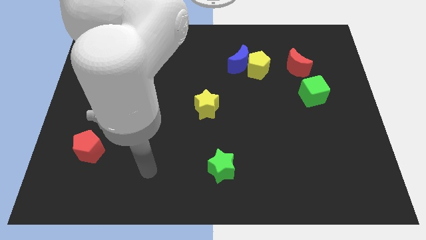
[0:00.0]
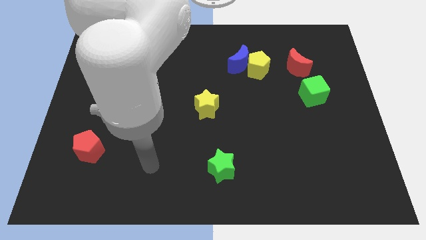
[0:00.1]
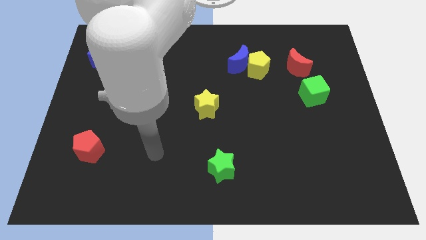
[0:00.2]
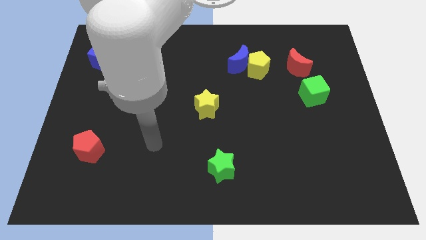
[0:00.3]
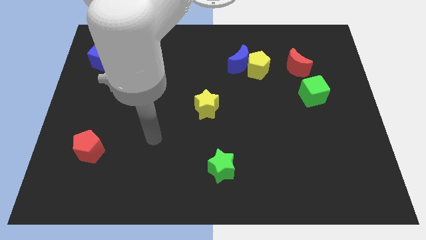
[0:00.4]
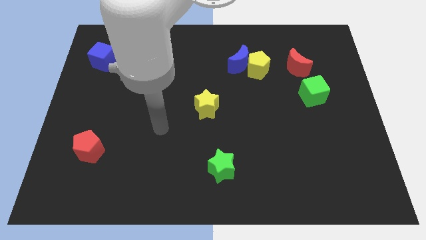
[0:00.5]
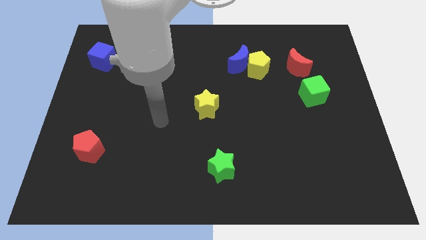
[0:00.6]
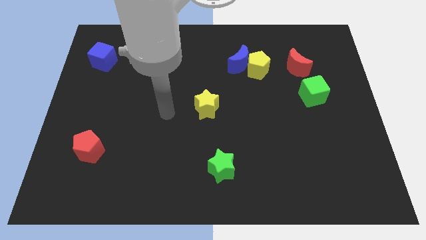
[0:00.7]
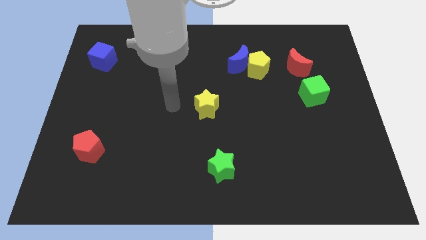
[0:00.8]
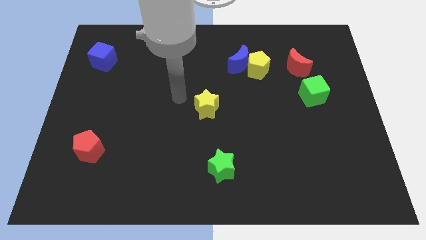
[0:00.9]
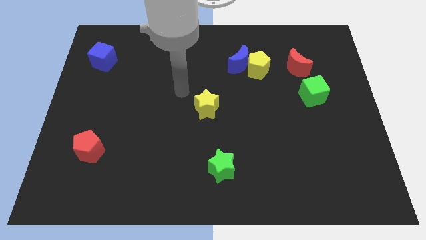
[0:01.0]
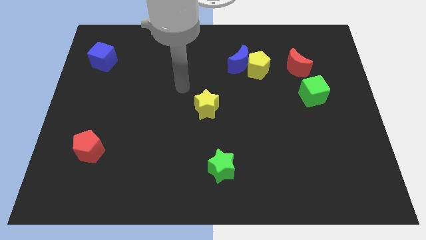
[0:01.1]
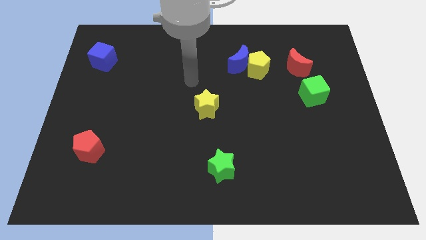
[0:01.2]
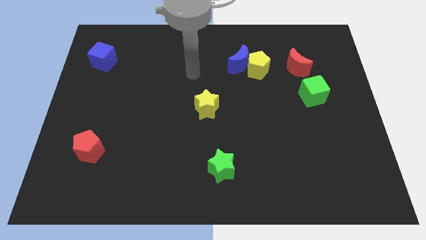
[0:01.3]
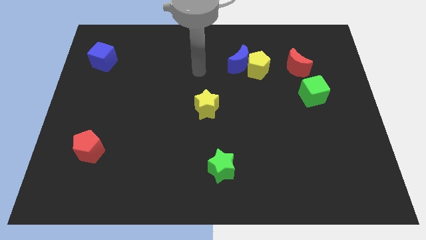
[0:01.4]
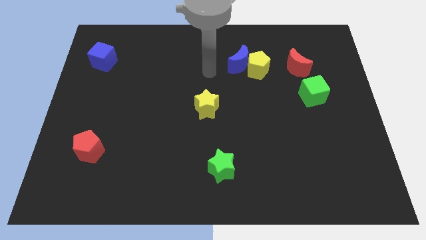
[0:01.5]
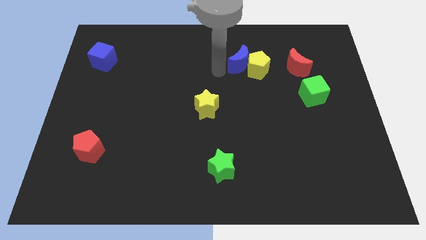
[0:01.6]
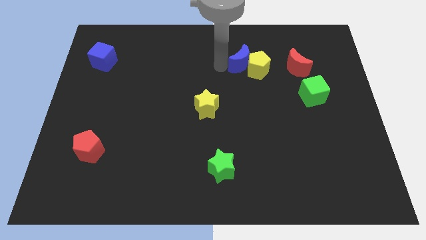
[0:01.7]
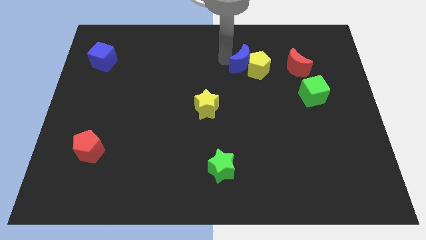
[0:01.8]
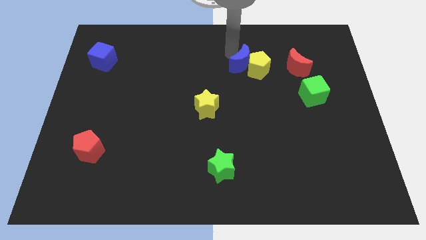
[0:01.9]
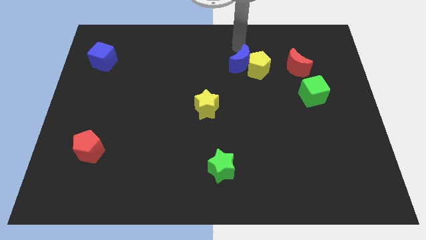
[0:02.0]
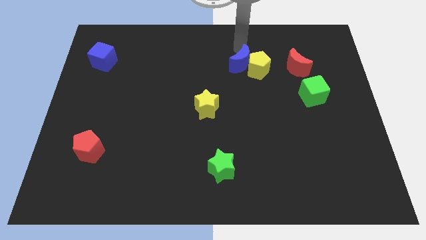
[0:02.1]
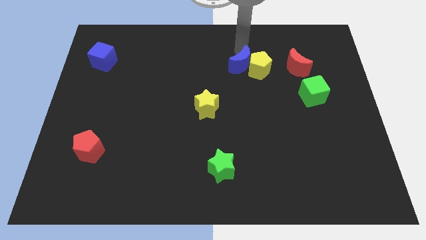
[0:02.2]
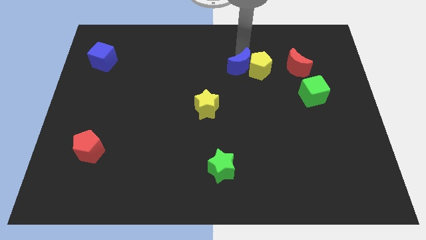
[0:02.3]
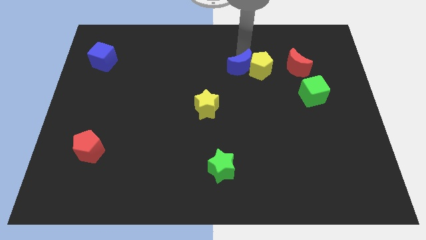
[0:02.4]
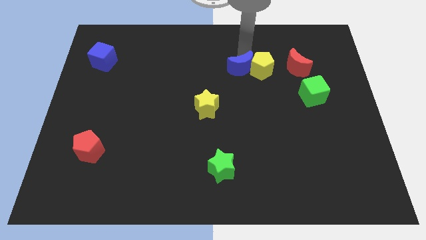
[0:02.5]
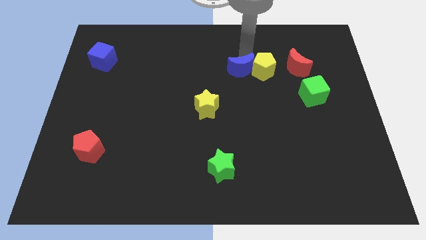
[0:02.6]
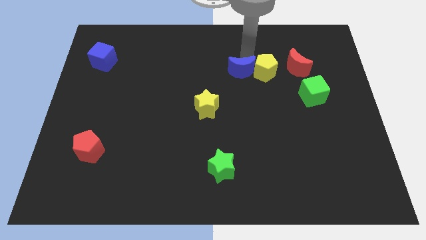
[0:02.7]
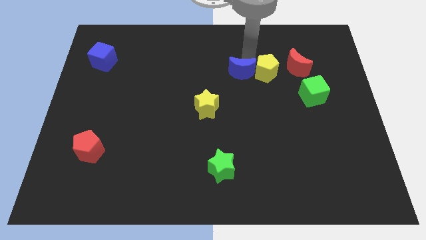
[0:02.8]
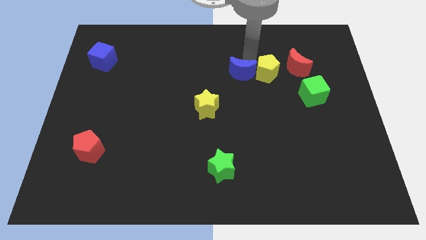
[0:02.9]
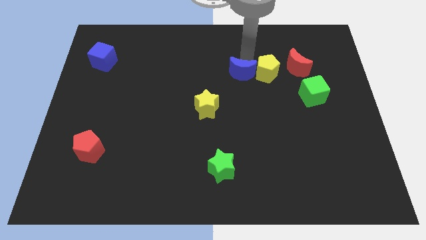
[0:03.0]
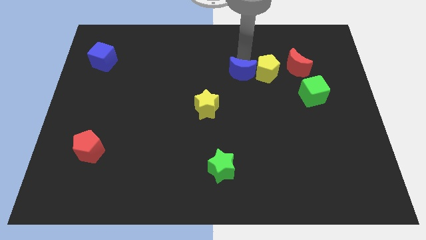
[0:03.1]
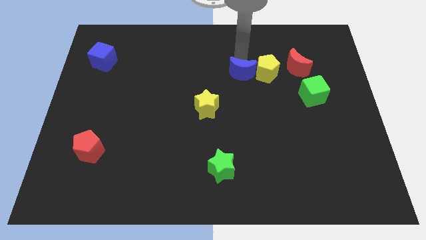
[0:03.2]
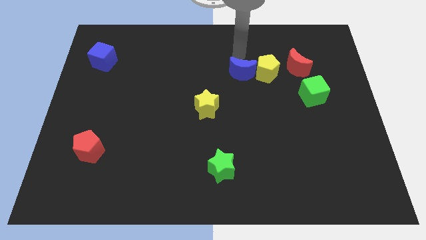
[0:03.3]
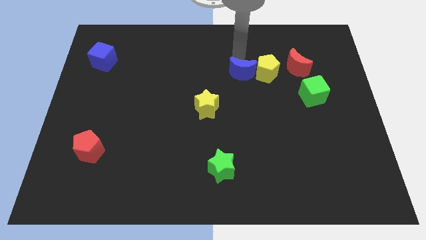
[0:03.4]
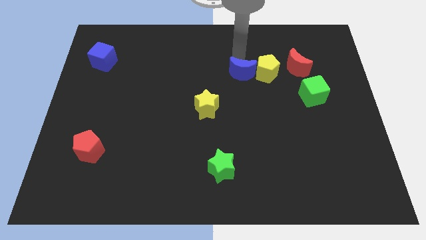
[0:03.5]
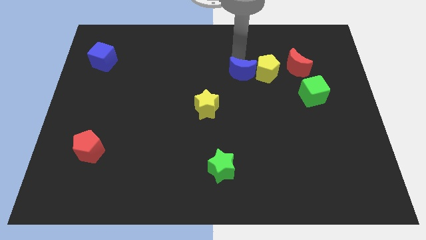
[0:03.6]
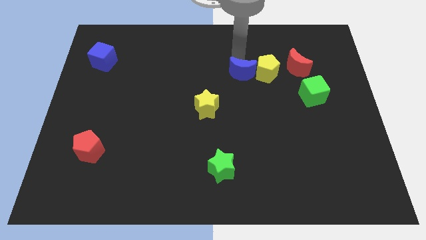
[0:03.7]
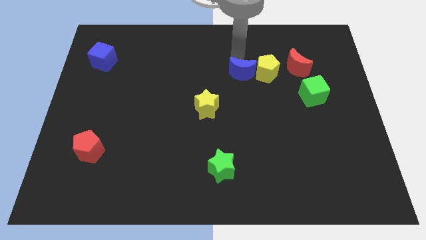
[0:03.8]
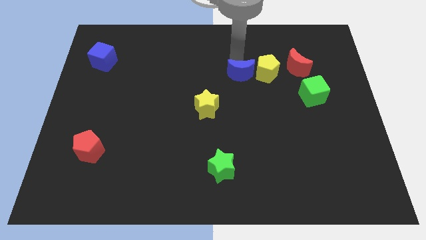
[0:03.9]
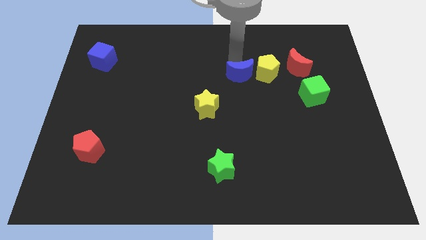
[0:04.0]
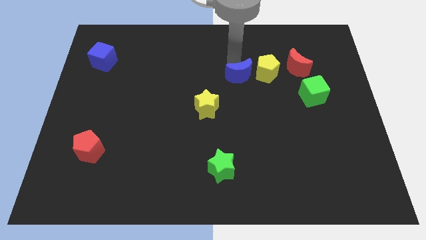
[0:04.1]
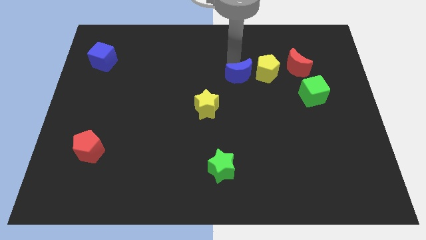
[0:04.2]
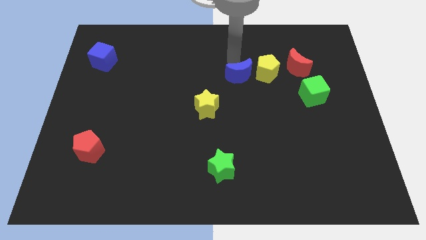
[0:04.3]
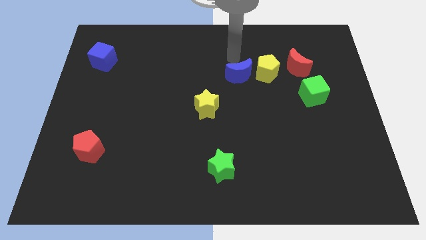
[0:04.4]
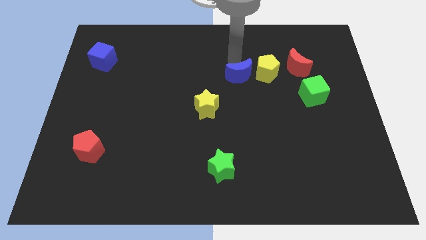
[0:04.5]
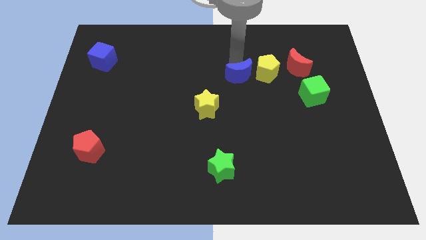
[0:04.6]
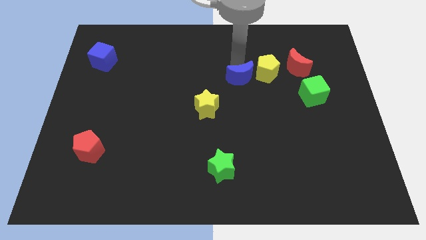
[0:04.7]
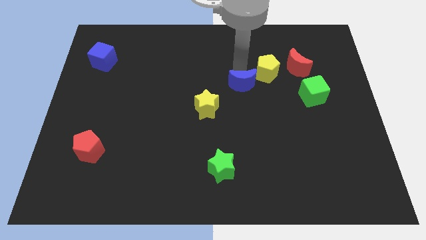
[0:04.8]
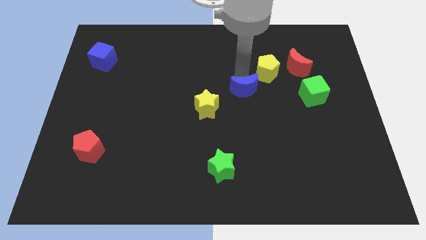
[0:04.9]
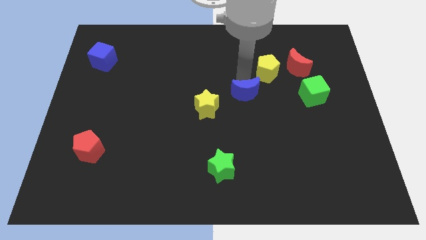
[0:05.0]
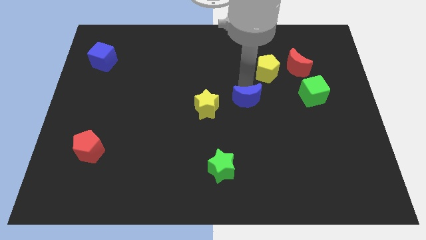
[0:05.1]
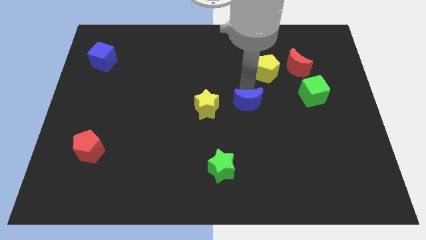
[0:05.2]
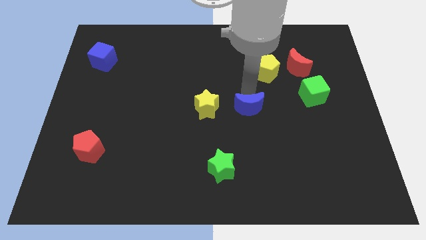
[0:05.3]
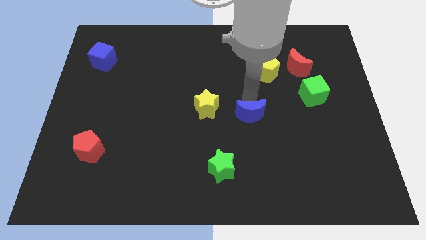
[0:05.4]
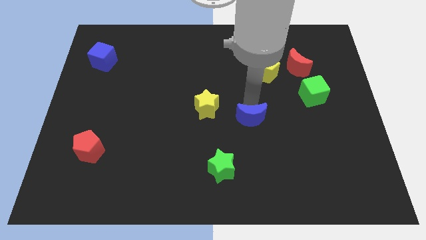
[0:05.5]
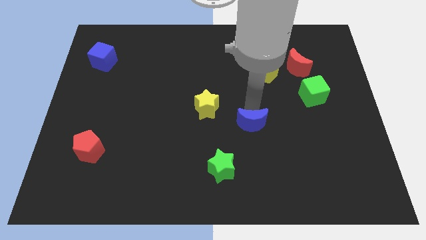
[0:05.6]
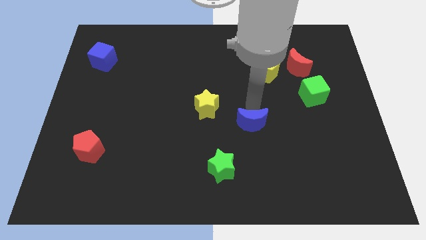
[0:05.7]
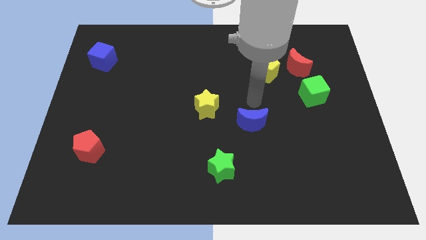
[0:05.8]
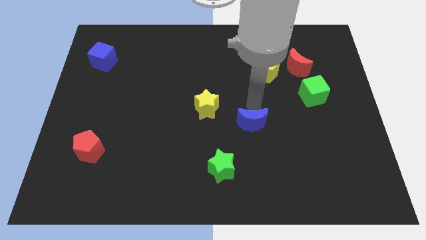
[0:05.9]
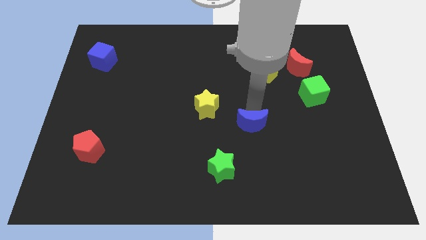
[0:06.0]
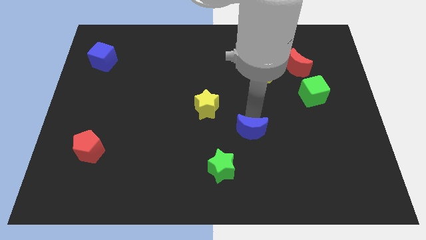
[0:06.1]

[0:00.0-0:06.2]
slide the blue moon down

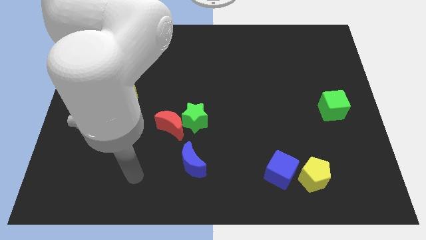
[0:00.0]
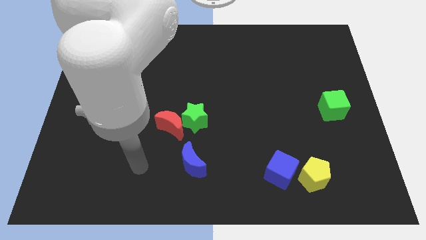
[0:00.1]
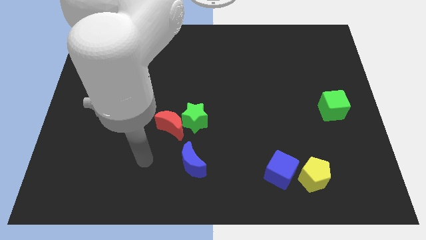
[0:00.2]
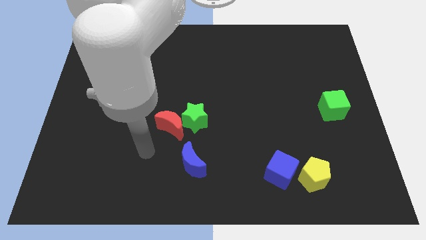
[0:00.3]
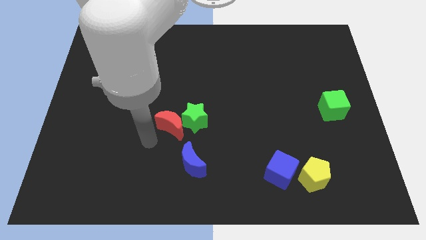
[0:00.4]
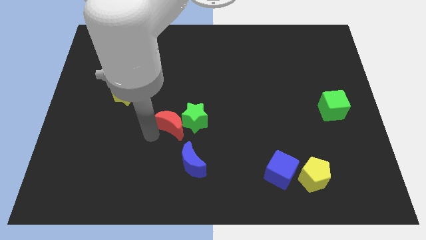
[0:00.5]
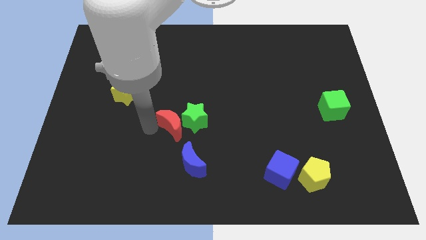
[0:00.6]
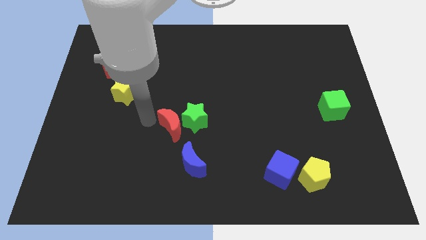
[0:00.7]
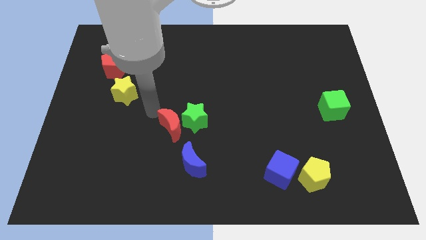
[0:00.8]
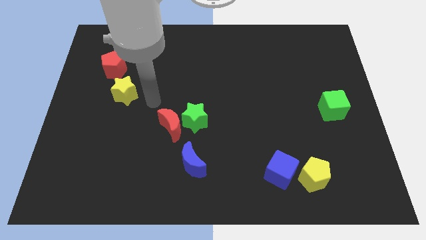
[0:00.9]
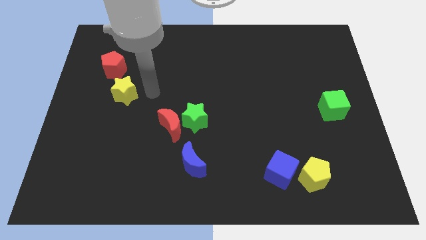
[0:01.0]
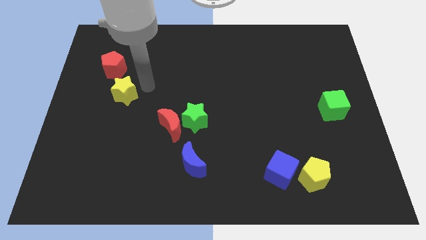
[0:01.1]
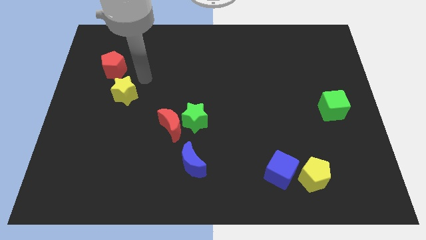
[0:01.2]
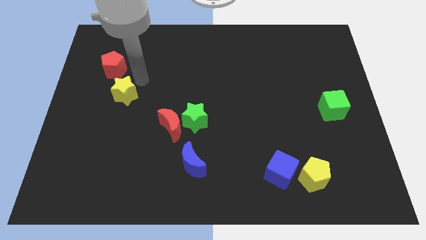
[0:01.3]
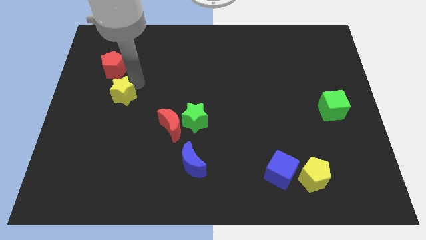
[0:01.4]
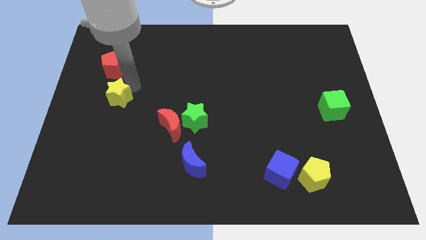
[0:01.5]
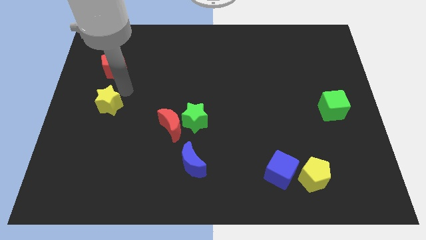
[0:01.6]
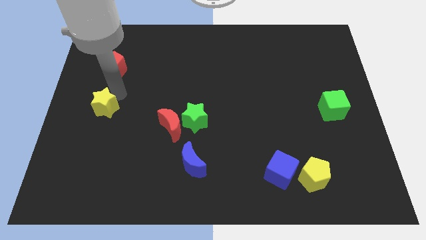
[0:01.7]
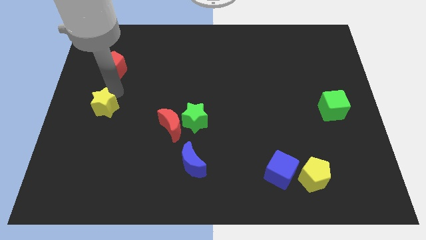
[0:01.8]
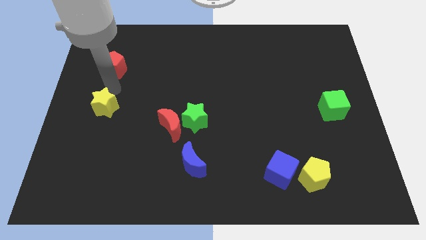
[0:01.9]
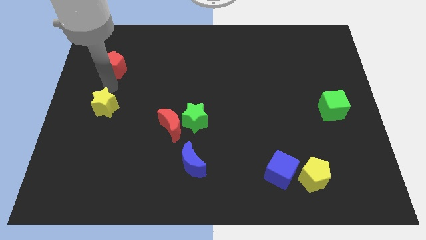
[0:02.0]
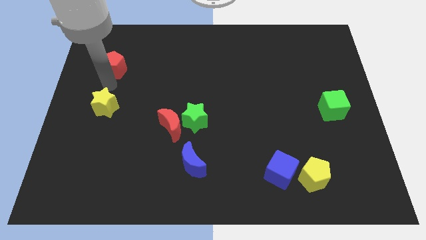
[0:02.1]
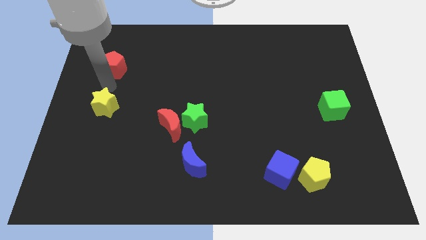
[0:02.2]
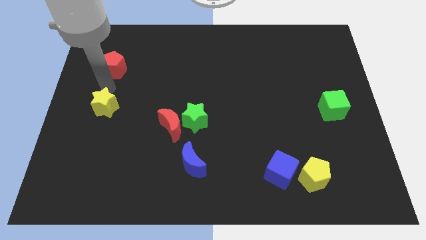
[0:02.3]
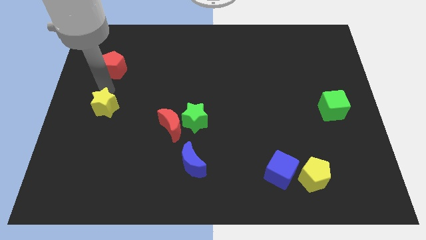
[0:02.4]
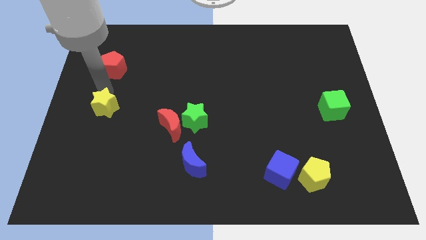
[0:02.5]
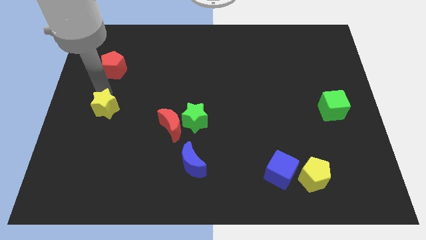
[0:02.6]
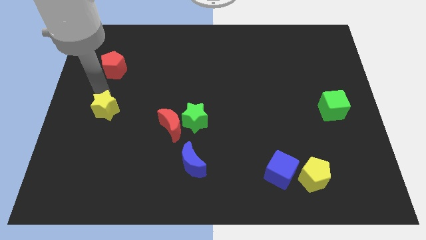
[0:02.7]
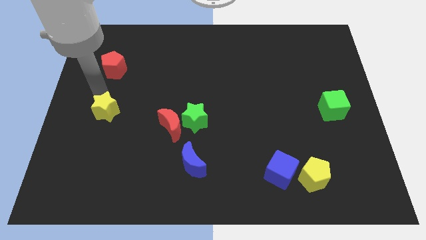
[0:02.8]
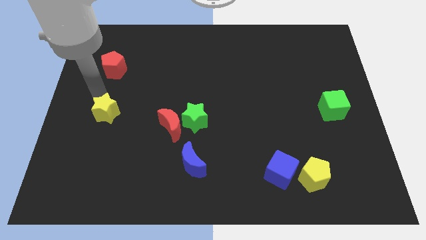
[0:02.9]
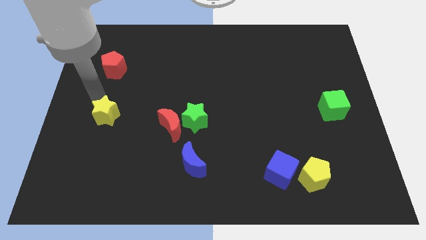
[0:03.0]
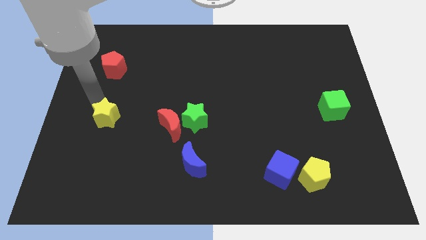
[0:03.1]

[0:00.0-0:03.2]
slide the yellow star down slightly
